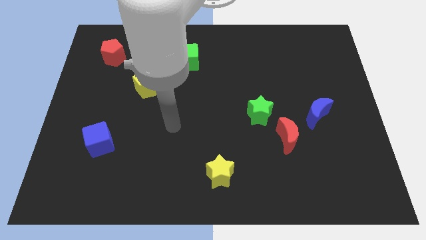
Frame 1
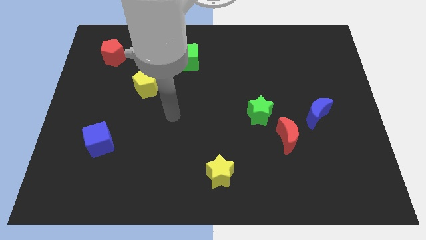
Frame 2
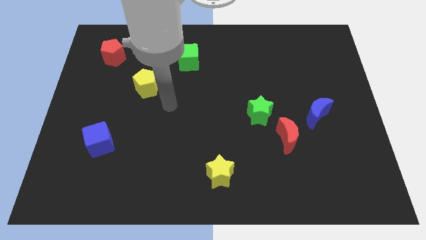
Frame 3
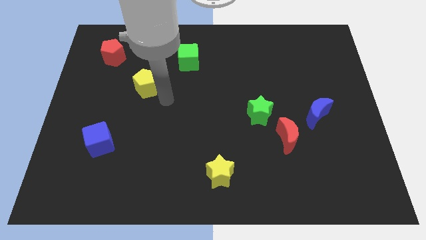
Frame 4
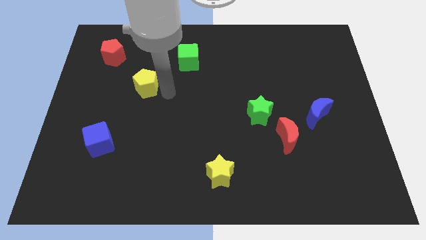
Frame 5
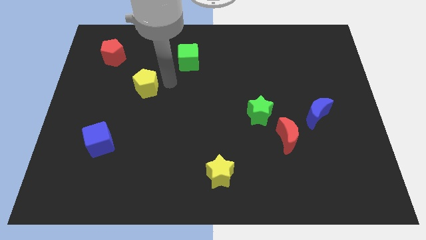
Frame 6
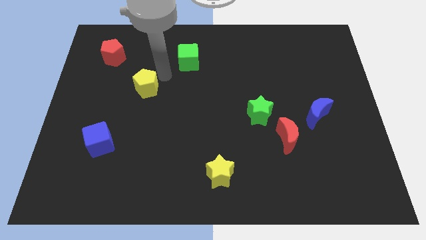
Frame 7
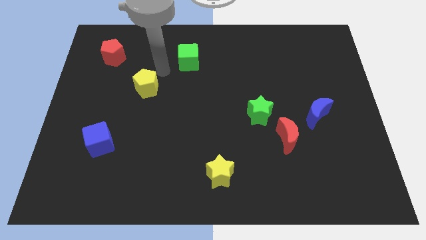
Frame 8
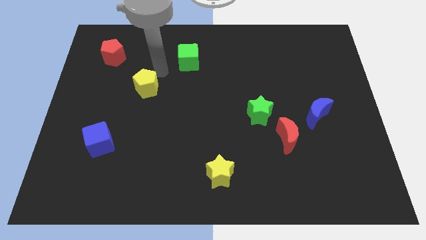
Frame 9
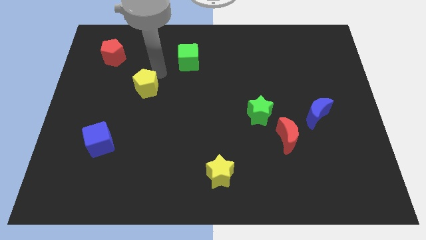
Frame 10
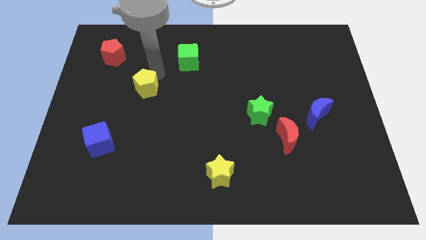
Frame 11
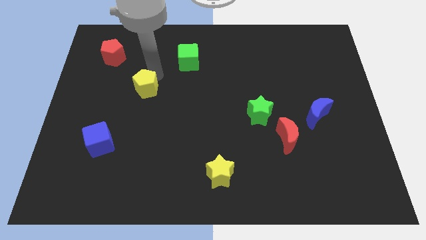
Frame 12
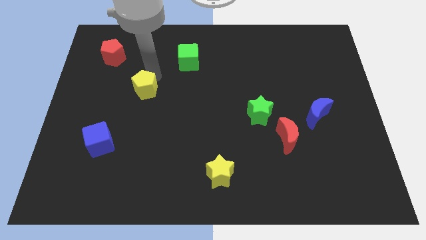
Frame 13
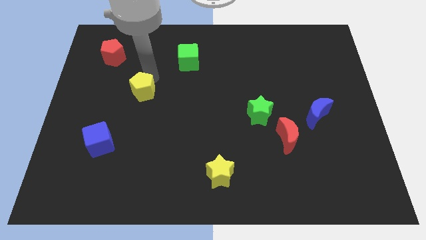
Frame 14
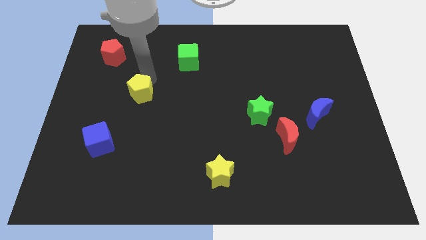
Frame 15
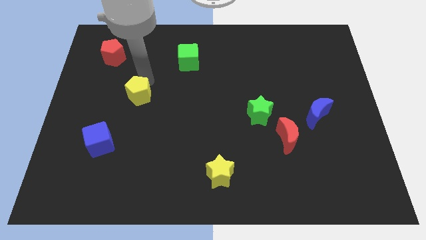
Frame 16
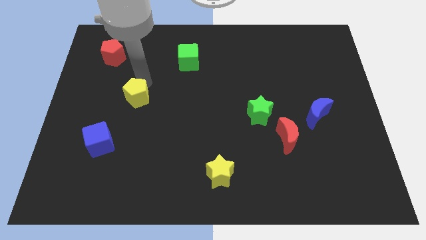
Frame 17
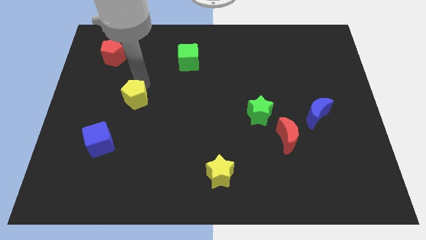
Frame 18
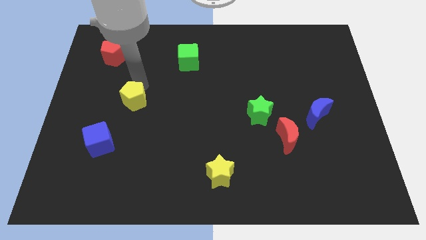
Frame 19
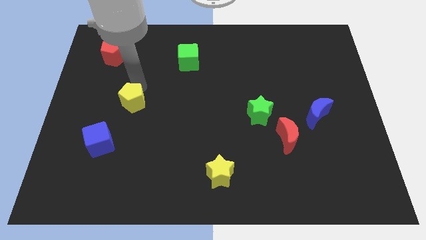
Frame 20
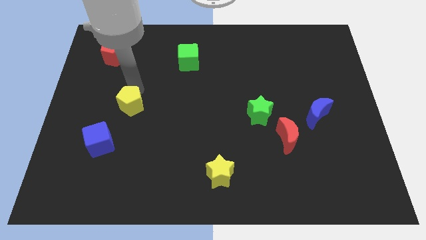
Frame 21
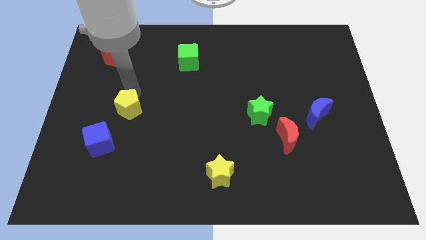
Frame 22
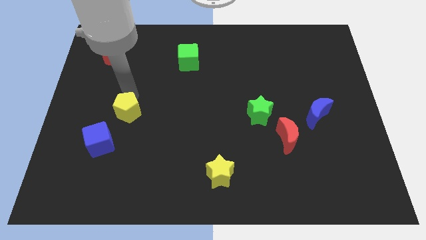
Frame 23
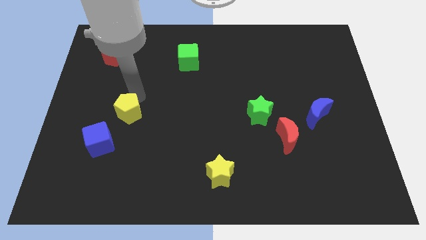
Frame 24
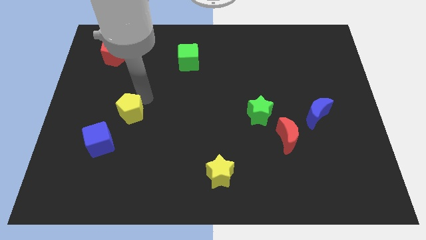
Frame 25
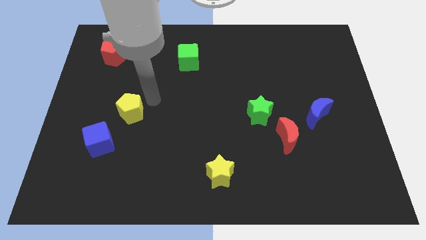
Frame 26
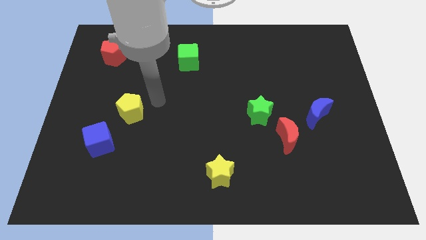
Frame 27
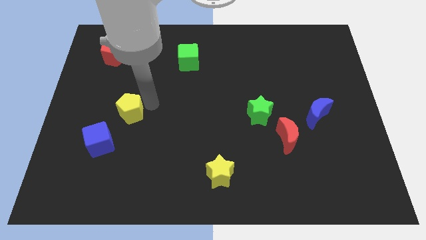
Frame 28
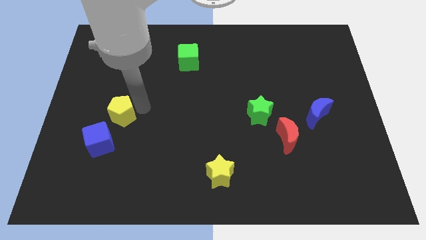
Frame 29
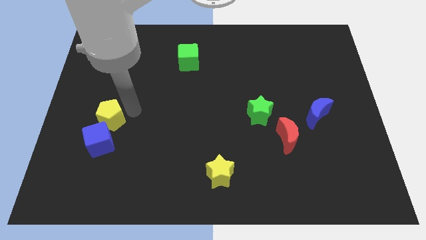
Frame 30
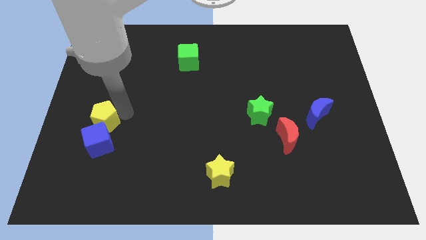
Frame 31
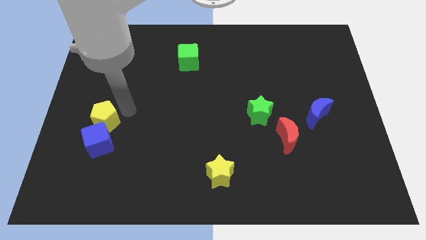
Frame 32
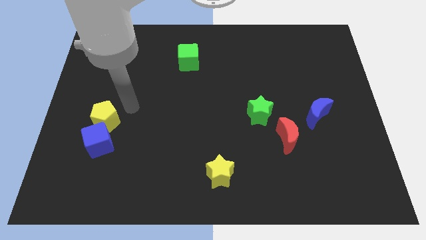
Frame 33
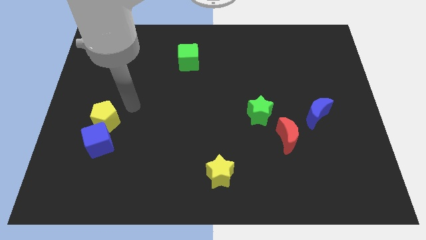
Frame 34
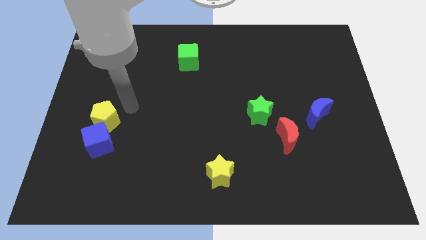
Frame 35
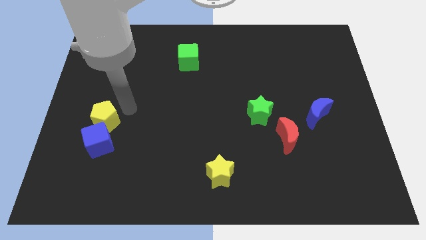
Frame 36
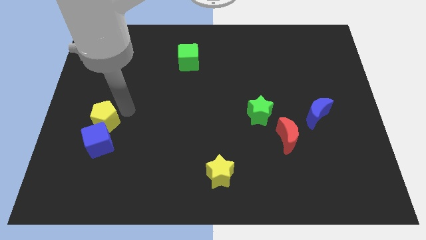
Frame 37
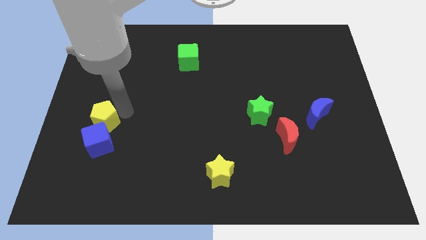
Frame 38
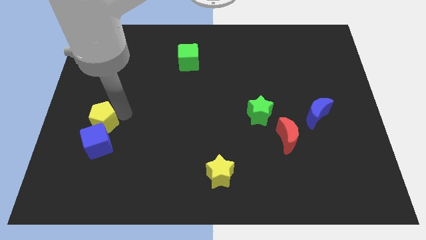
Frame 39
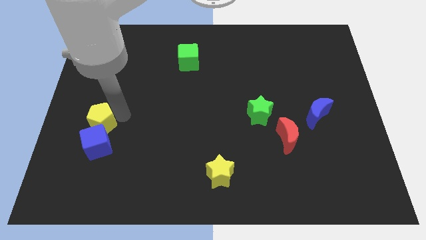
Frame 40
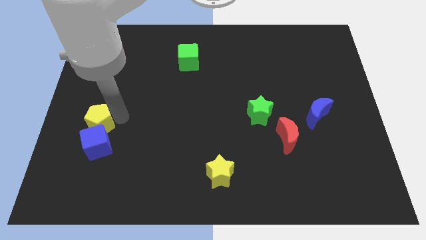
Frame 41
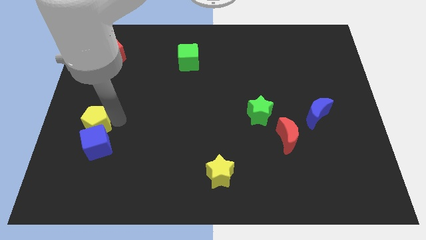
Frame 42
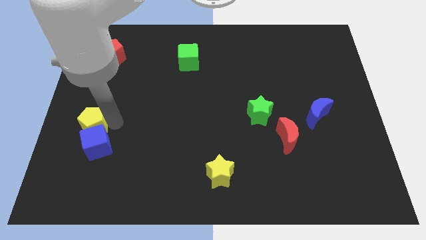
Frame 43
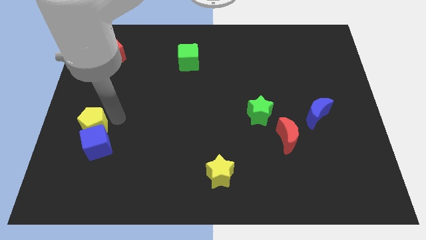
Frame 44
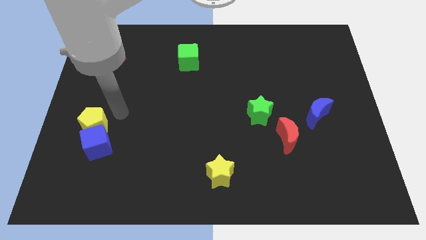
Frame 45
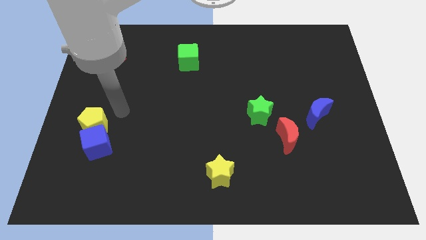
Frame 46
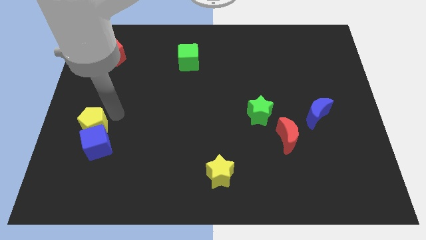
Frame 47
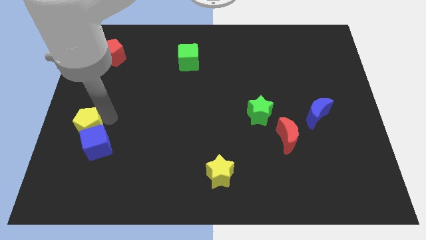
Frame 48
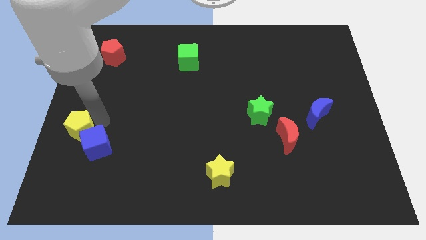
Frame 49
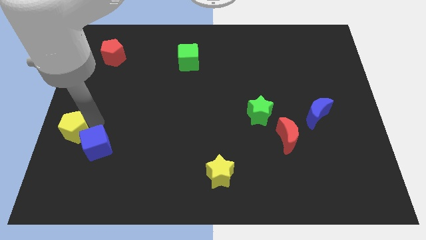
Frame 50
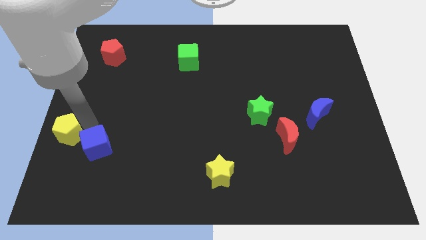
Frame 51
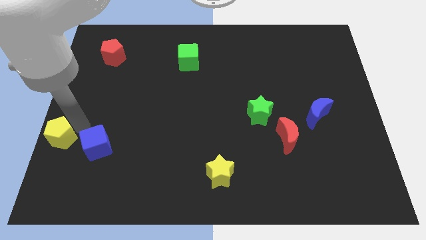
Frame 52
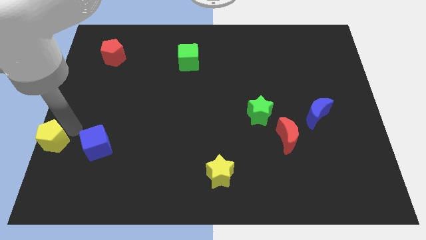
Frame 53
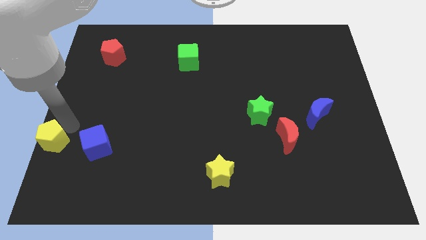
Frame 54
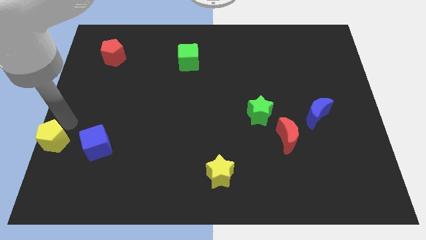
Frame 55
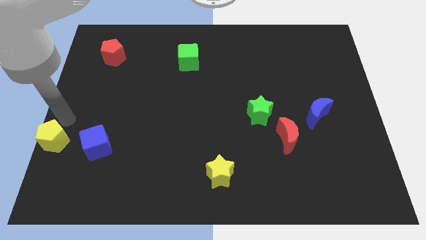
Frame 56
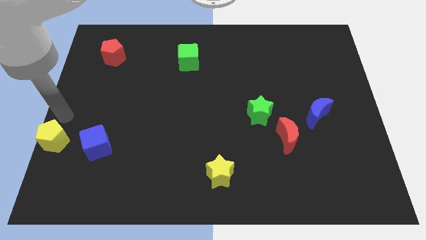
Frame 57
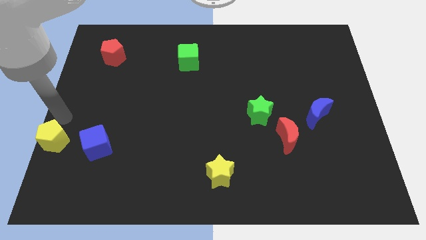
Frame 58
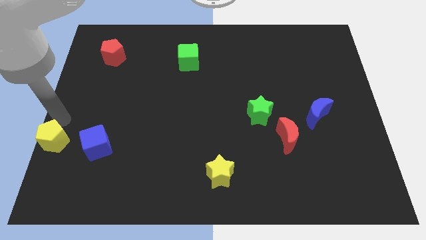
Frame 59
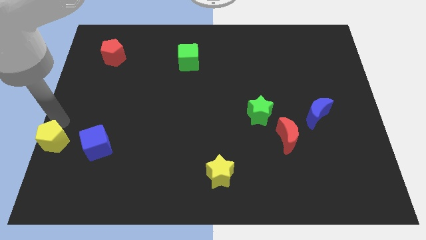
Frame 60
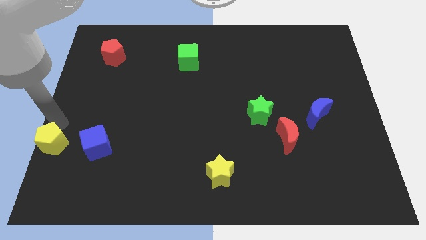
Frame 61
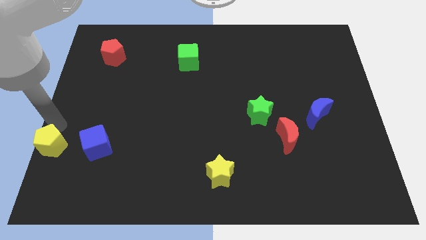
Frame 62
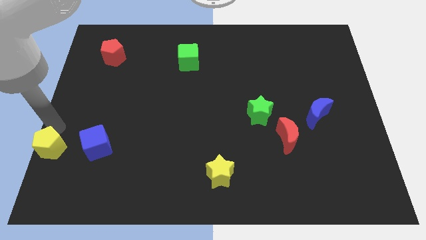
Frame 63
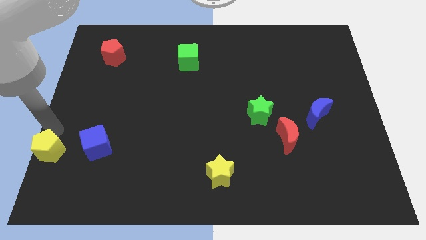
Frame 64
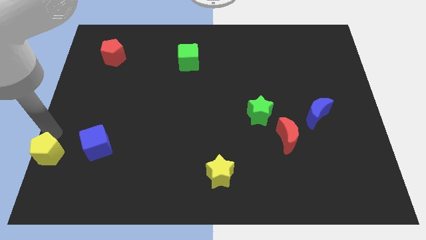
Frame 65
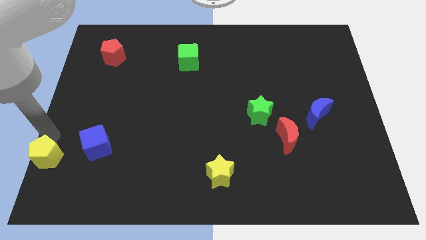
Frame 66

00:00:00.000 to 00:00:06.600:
put the yellow pentagon to the bottom left of the board

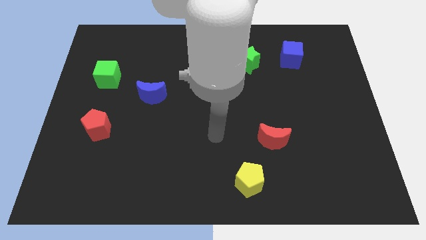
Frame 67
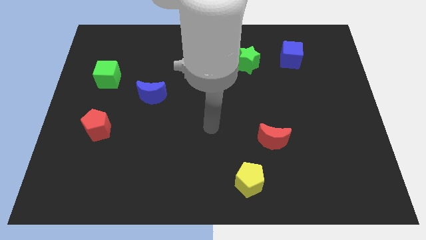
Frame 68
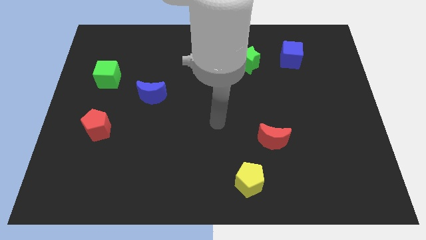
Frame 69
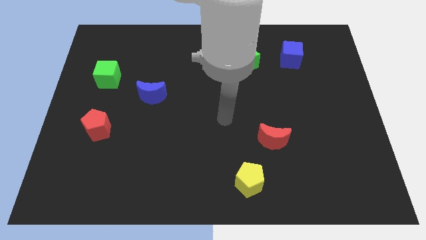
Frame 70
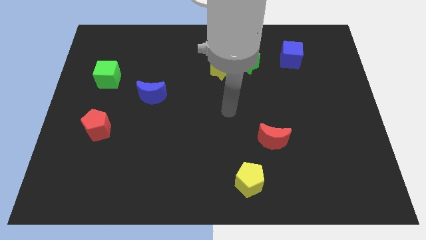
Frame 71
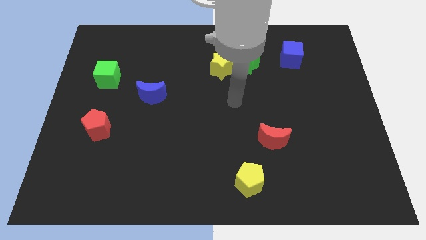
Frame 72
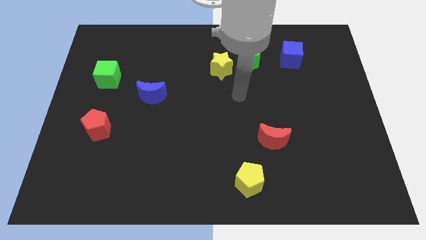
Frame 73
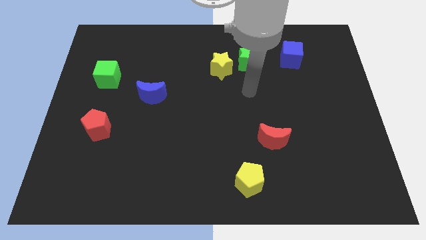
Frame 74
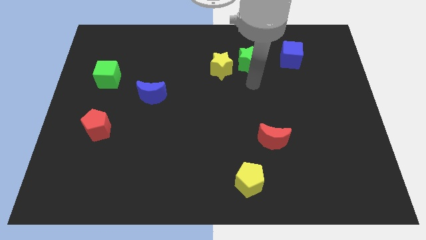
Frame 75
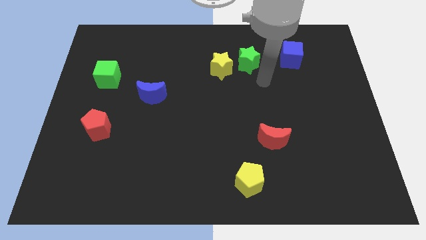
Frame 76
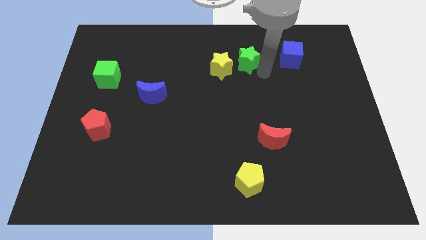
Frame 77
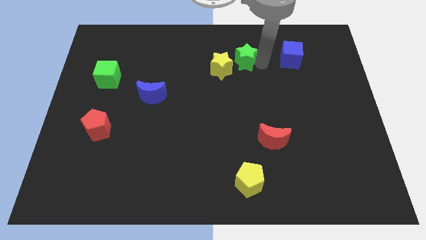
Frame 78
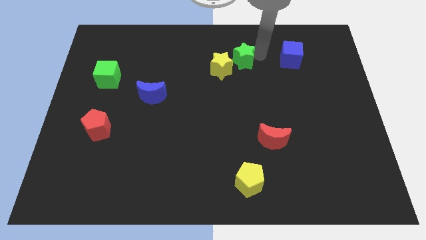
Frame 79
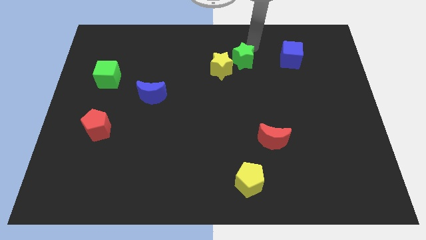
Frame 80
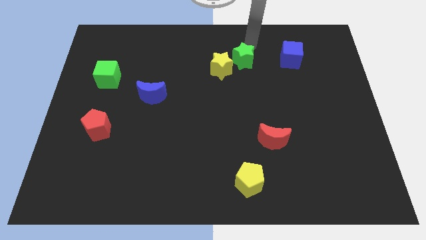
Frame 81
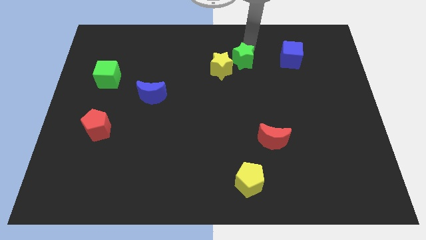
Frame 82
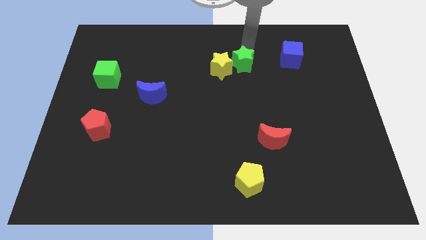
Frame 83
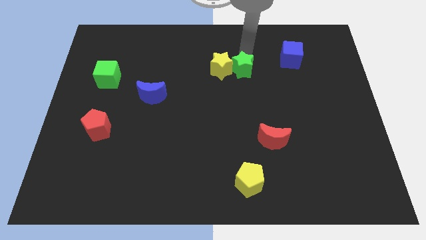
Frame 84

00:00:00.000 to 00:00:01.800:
put the green star to the middle of the board
